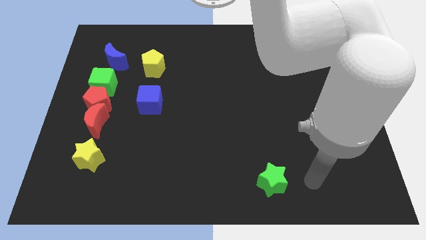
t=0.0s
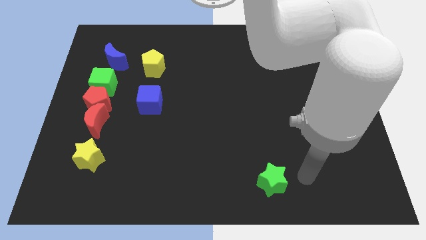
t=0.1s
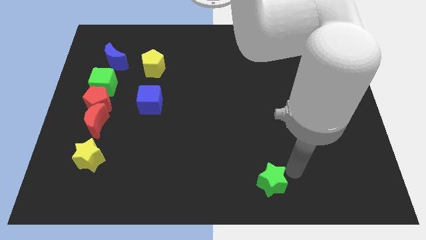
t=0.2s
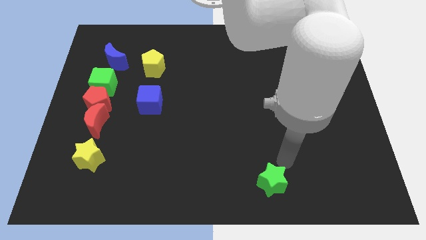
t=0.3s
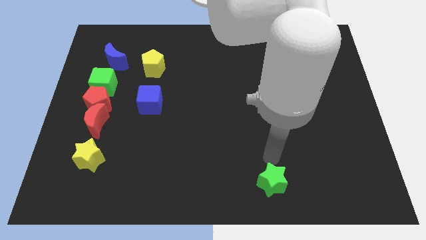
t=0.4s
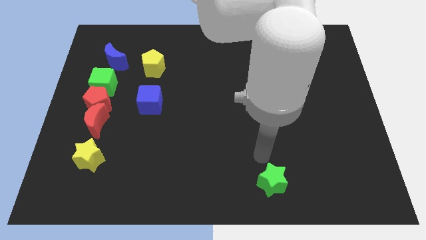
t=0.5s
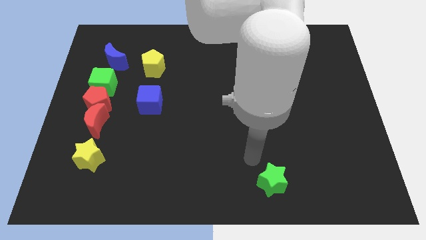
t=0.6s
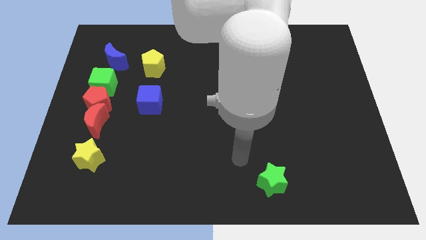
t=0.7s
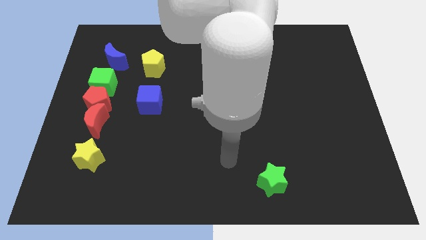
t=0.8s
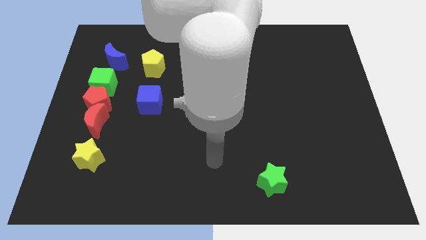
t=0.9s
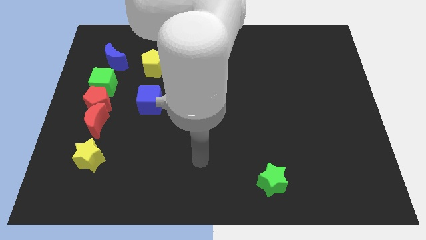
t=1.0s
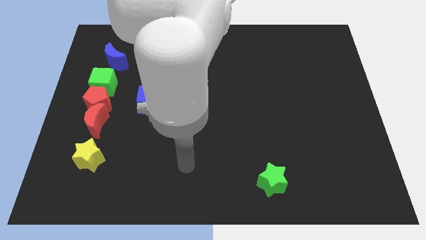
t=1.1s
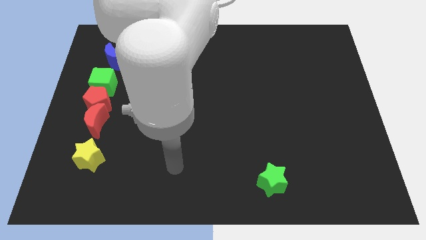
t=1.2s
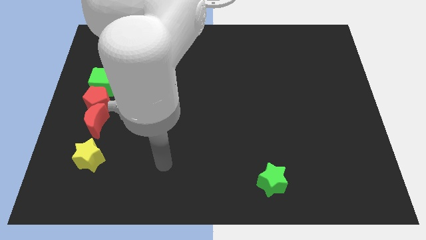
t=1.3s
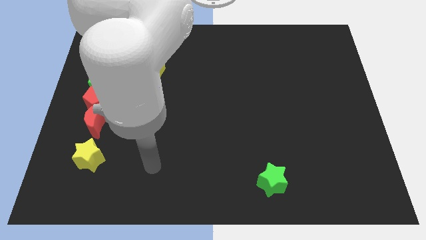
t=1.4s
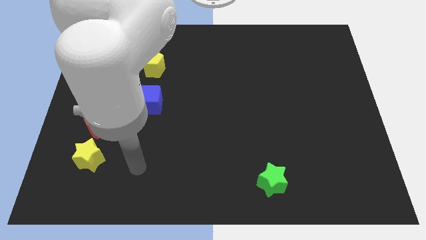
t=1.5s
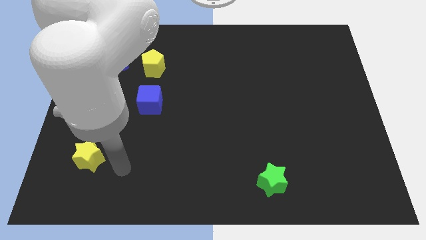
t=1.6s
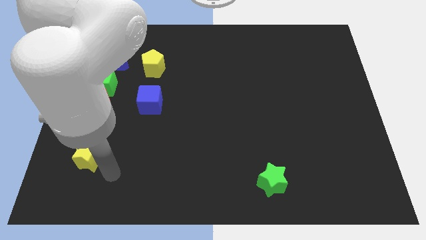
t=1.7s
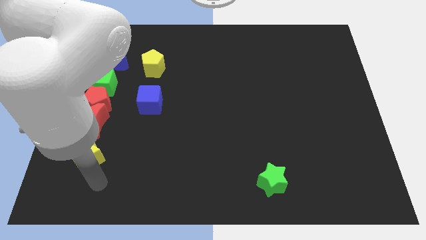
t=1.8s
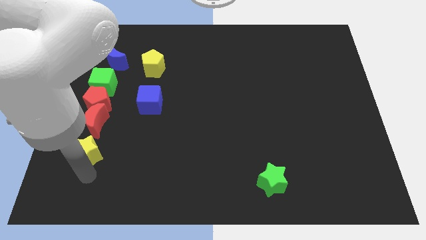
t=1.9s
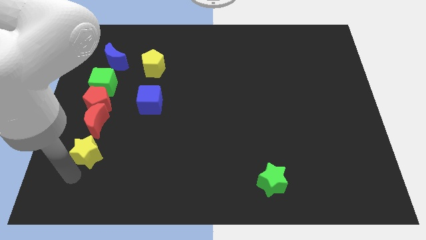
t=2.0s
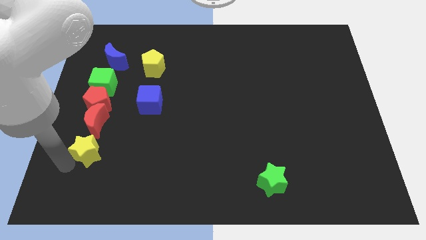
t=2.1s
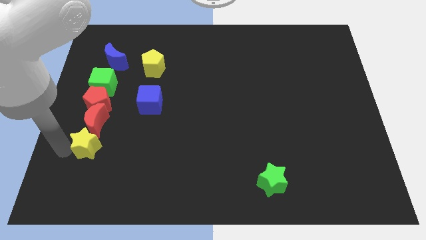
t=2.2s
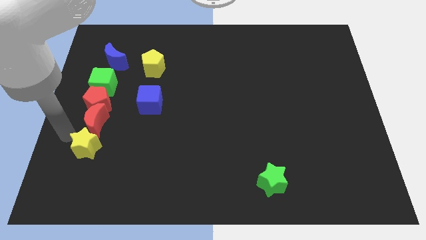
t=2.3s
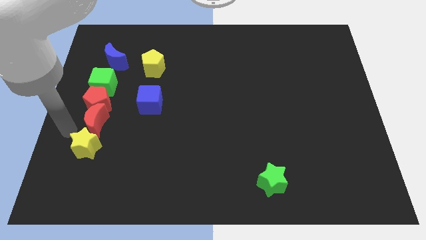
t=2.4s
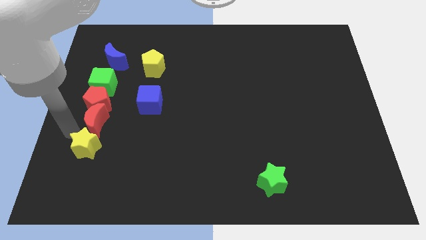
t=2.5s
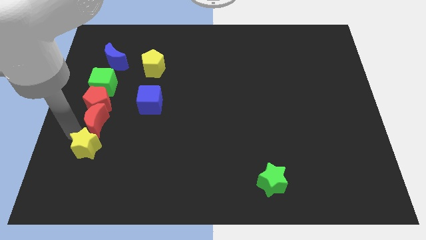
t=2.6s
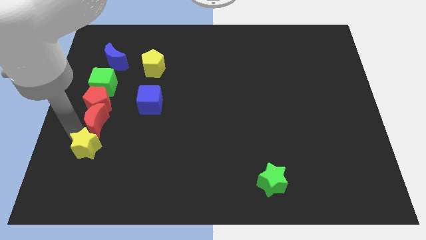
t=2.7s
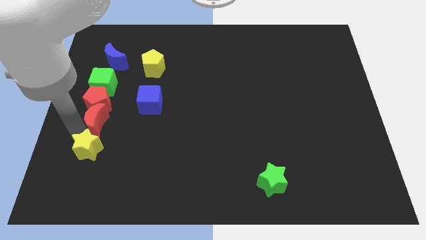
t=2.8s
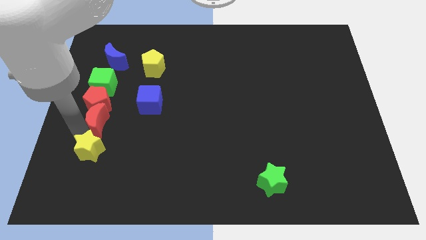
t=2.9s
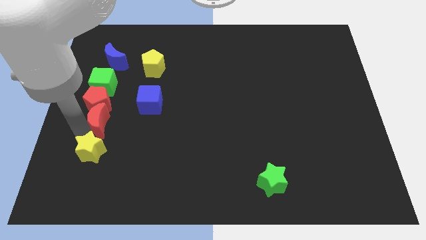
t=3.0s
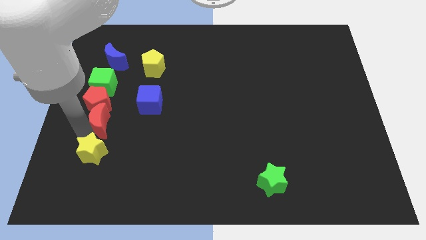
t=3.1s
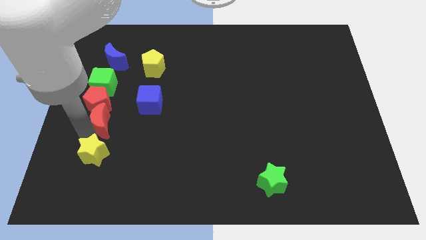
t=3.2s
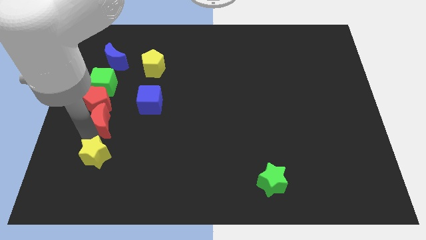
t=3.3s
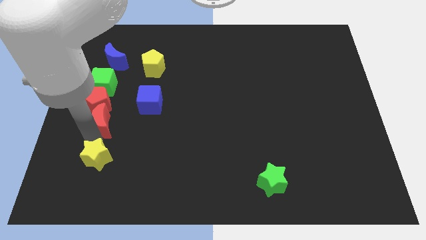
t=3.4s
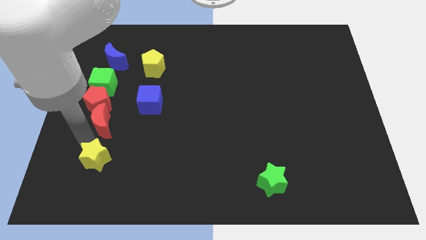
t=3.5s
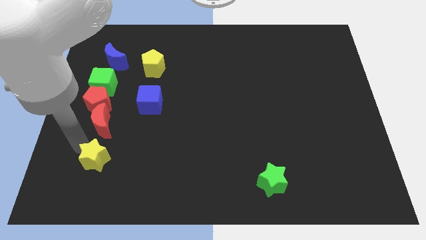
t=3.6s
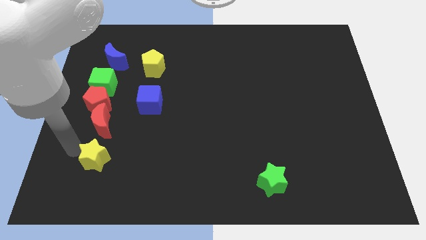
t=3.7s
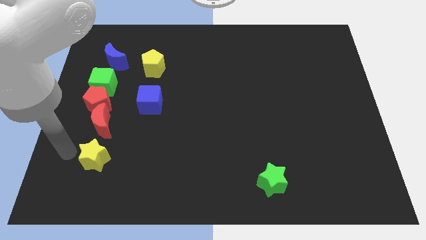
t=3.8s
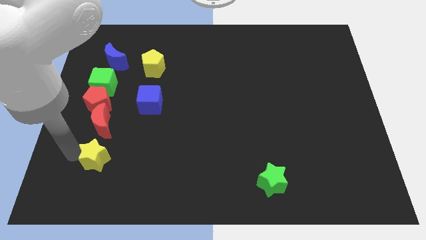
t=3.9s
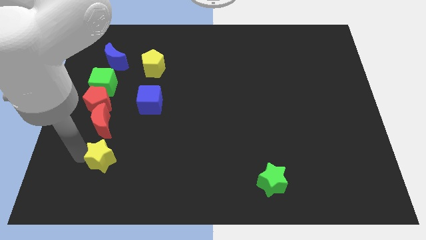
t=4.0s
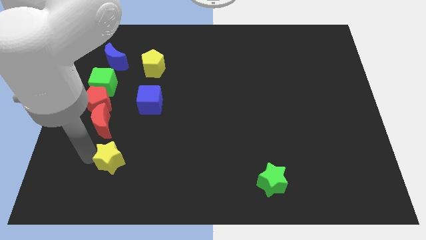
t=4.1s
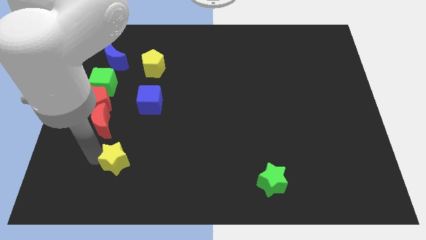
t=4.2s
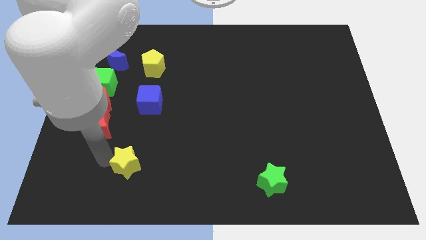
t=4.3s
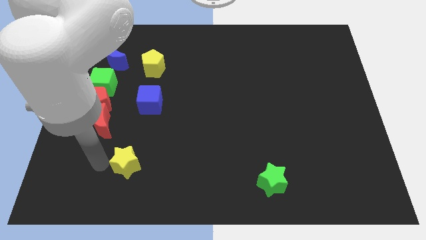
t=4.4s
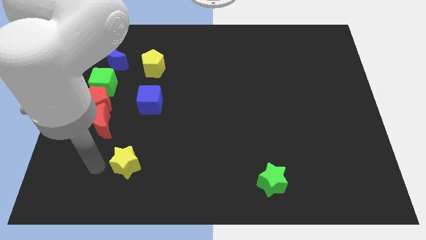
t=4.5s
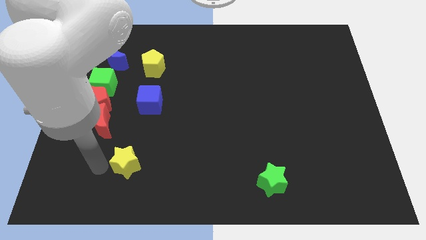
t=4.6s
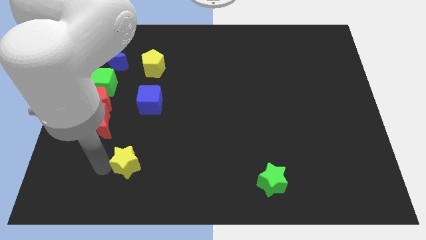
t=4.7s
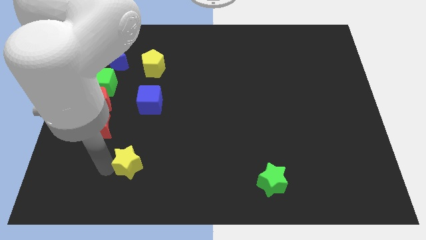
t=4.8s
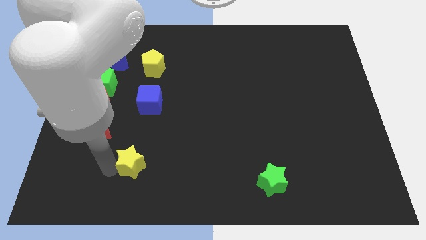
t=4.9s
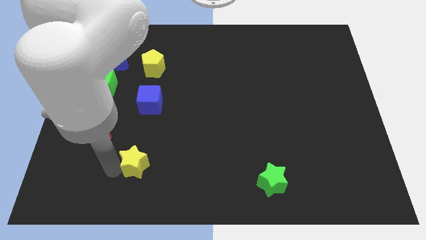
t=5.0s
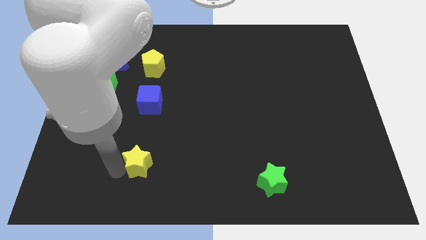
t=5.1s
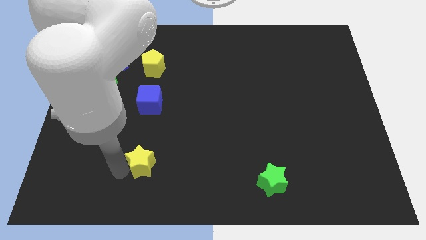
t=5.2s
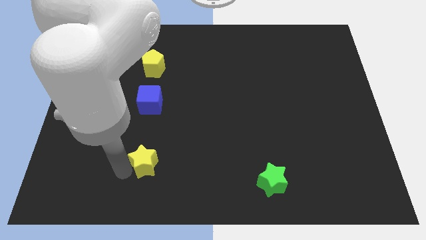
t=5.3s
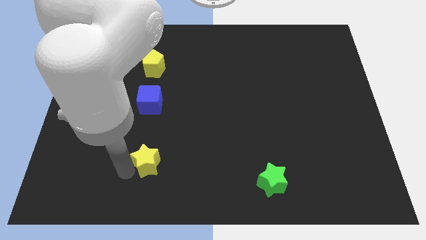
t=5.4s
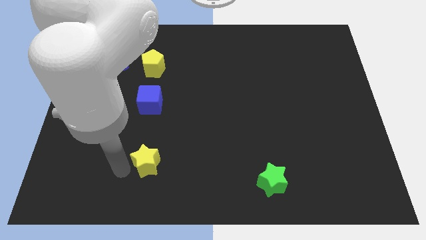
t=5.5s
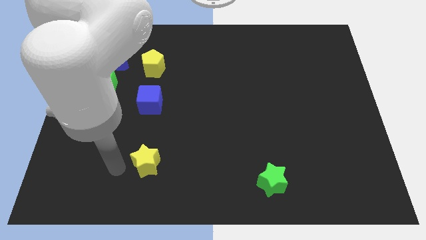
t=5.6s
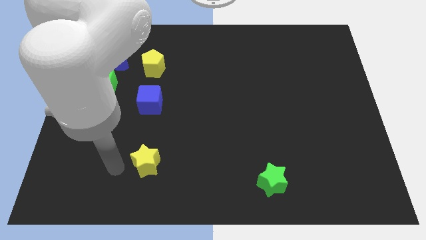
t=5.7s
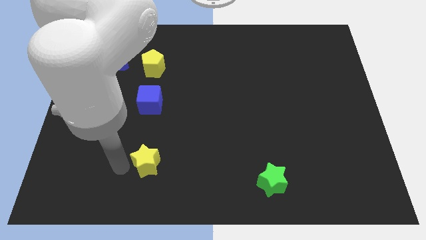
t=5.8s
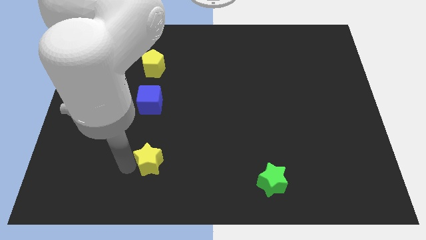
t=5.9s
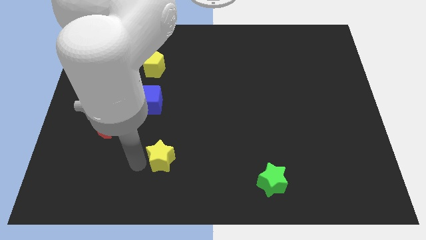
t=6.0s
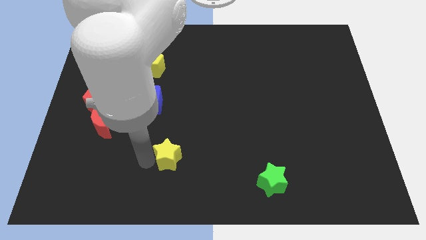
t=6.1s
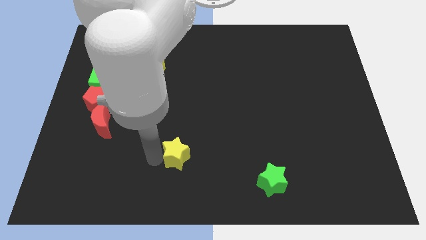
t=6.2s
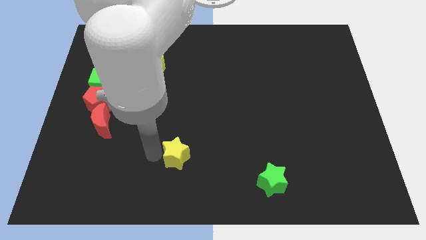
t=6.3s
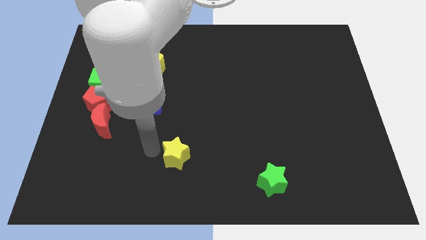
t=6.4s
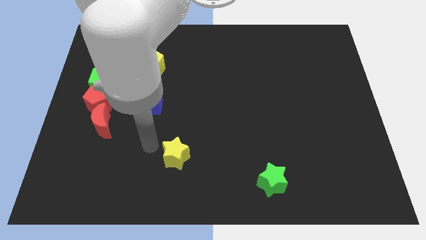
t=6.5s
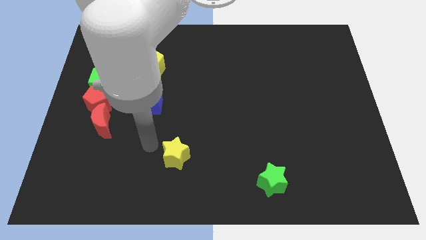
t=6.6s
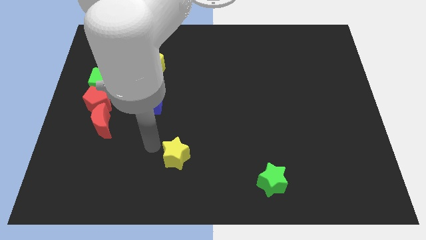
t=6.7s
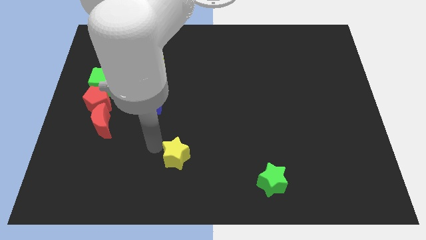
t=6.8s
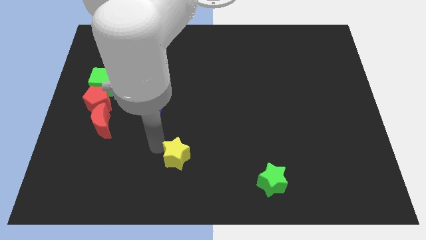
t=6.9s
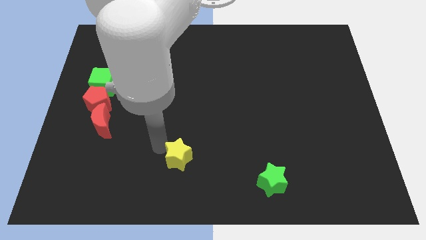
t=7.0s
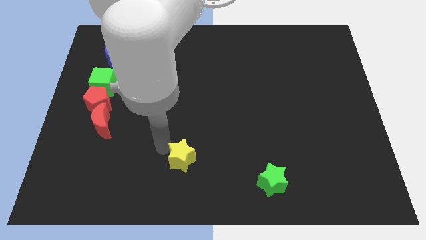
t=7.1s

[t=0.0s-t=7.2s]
slide the yellow star to the right

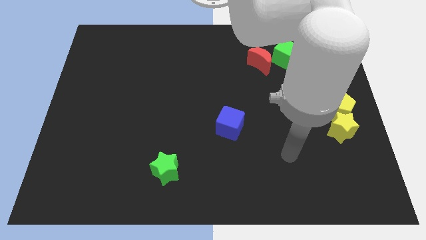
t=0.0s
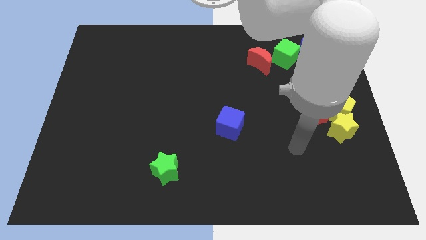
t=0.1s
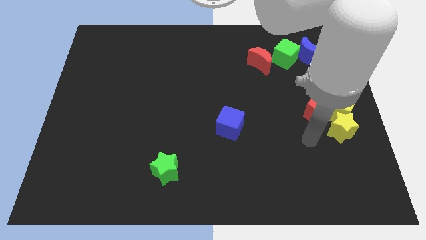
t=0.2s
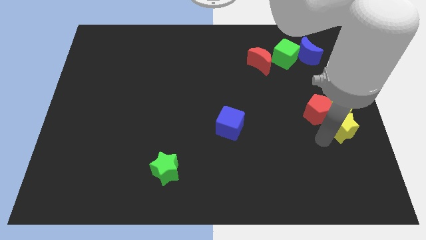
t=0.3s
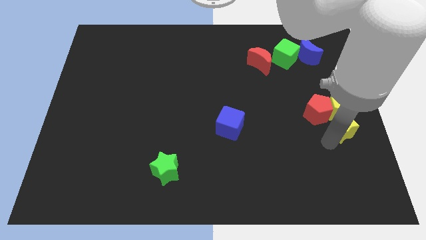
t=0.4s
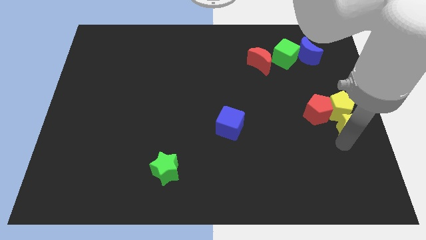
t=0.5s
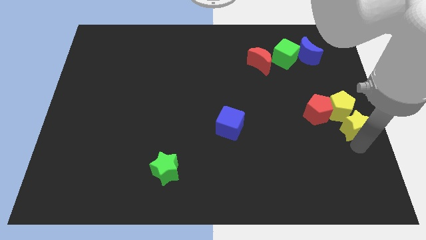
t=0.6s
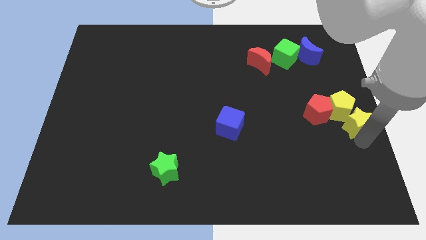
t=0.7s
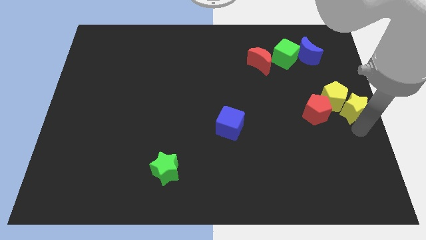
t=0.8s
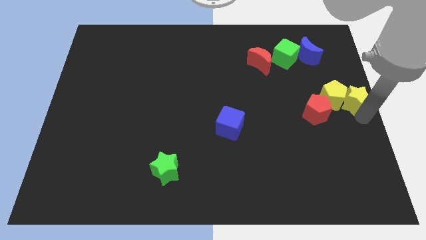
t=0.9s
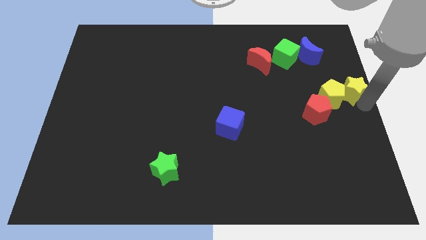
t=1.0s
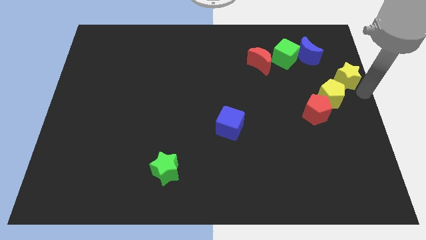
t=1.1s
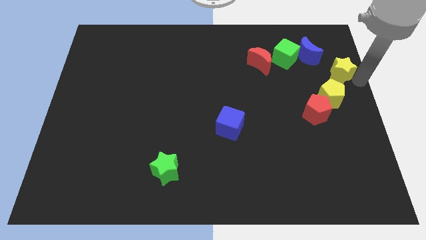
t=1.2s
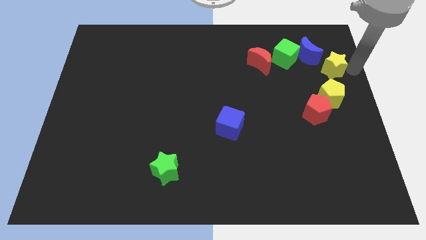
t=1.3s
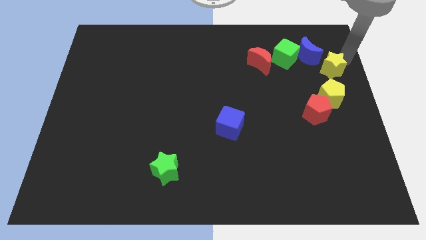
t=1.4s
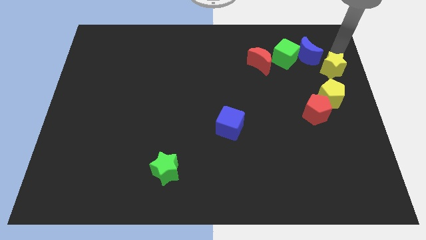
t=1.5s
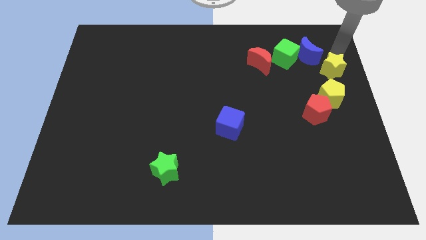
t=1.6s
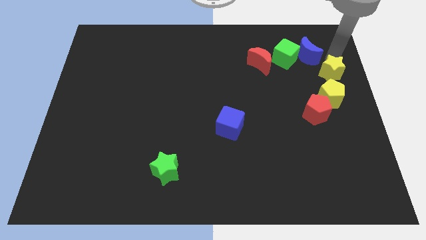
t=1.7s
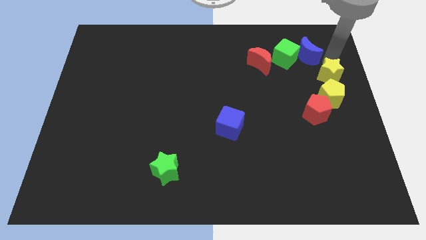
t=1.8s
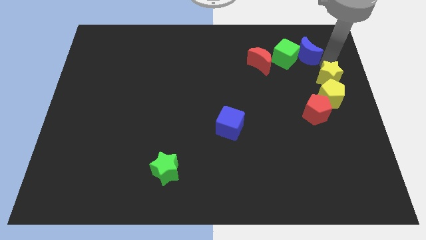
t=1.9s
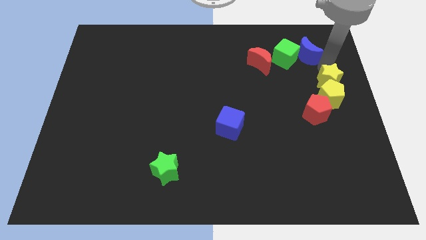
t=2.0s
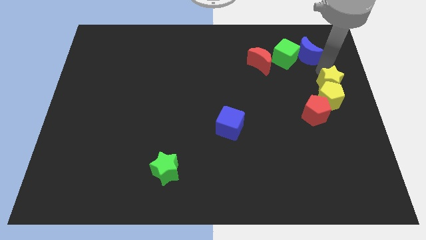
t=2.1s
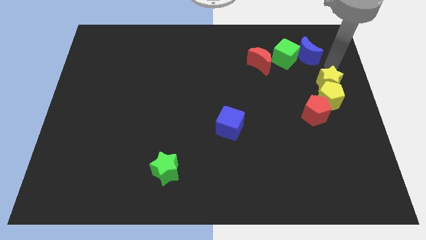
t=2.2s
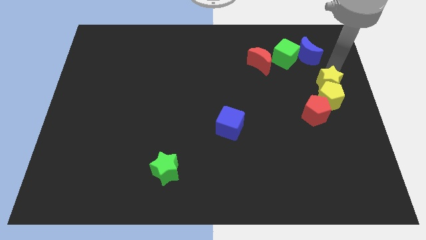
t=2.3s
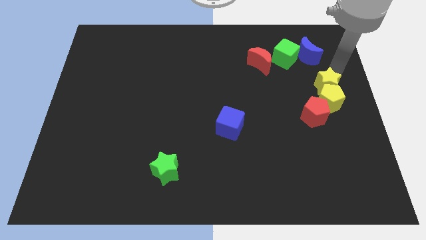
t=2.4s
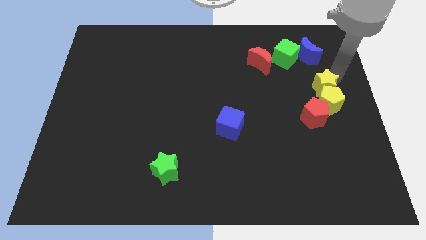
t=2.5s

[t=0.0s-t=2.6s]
push the yellow star up and then to the left somewhat
